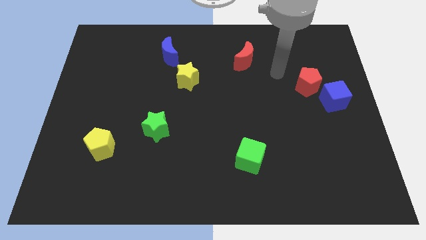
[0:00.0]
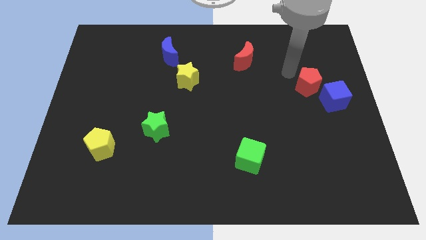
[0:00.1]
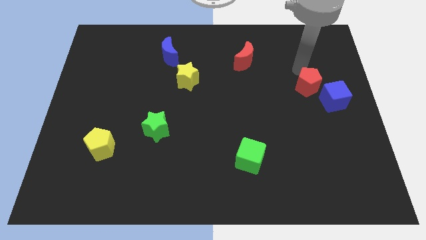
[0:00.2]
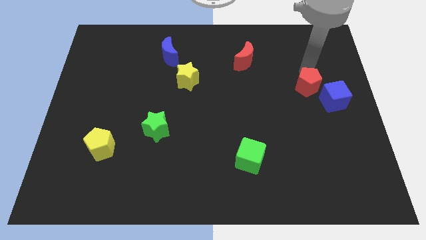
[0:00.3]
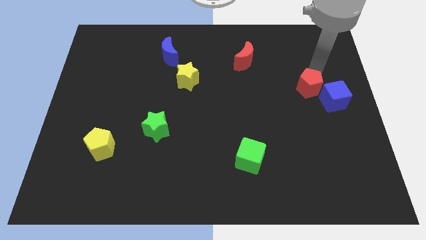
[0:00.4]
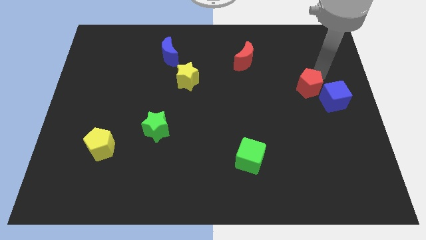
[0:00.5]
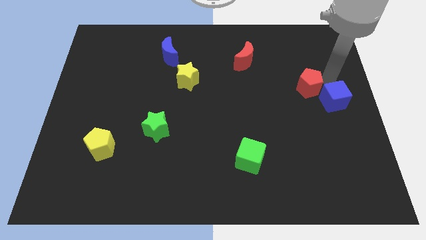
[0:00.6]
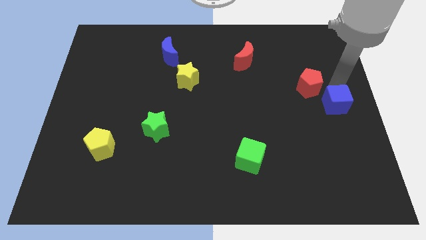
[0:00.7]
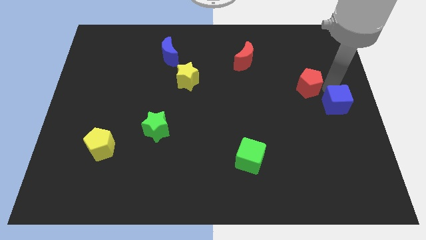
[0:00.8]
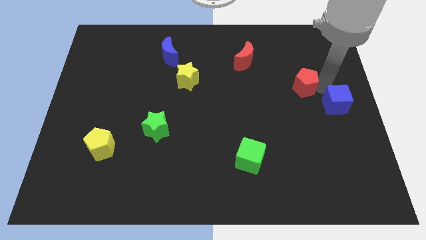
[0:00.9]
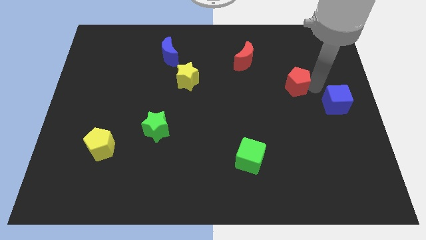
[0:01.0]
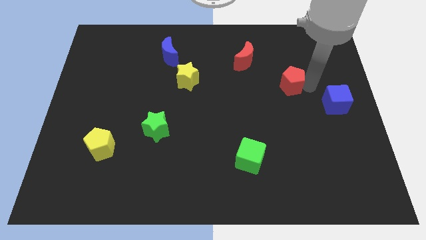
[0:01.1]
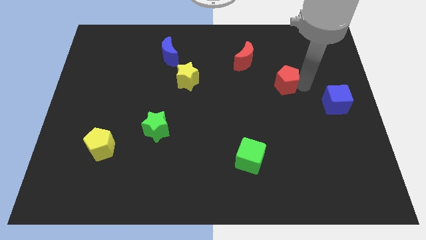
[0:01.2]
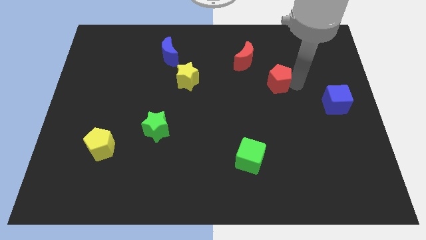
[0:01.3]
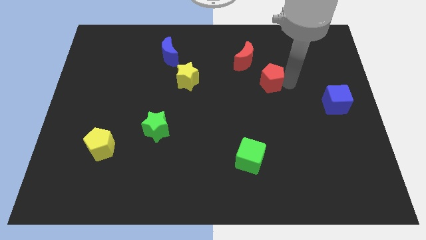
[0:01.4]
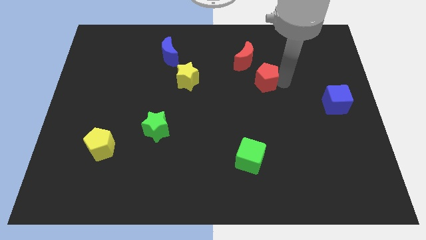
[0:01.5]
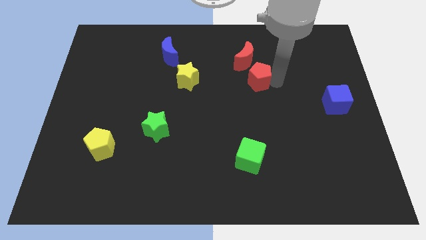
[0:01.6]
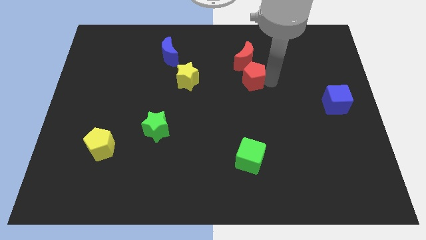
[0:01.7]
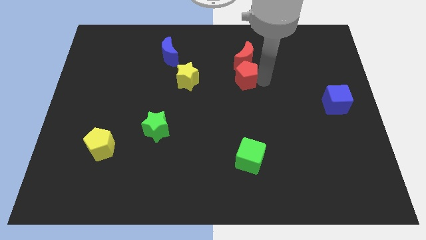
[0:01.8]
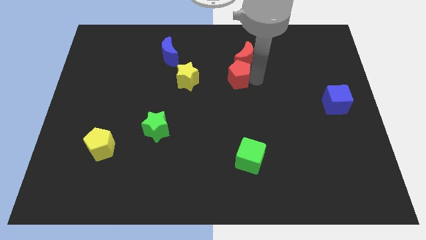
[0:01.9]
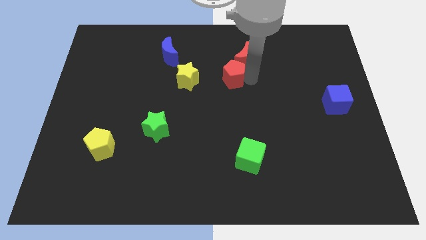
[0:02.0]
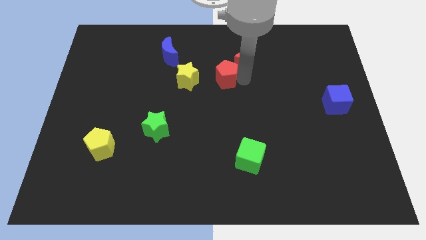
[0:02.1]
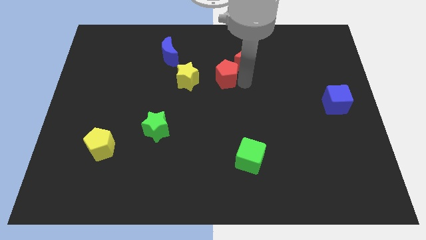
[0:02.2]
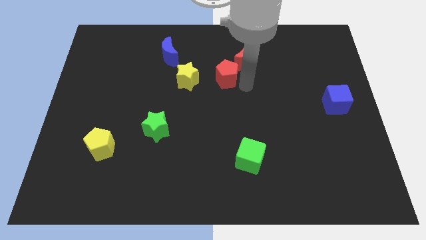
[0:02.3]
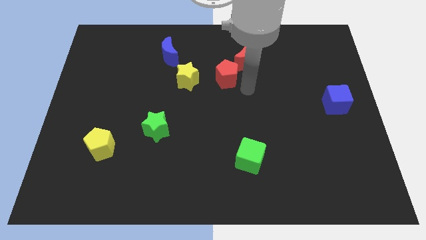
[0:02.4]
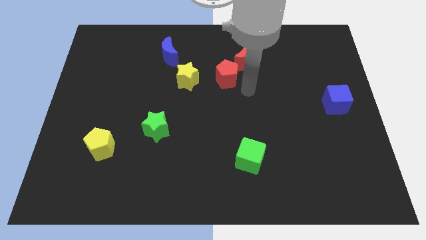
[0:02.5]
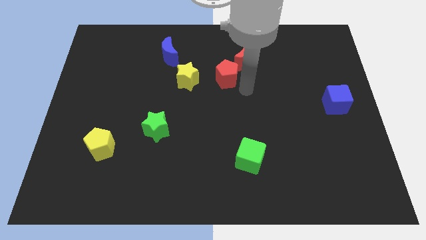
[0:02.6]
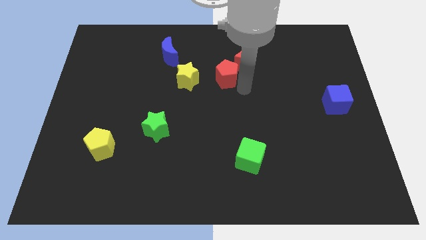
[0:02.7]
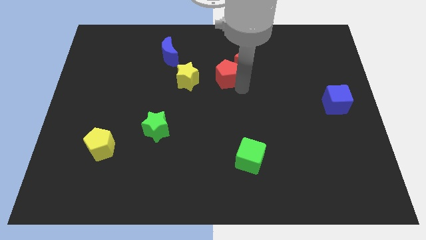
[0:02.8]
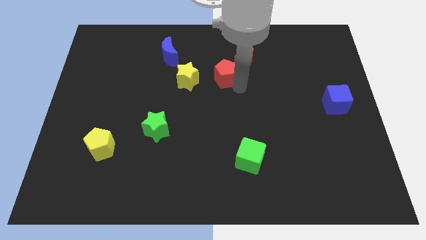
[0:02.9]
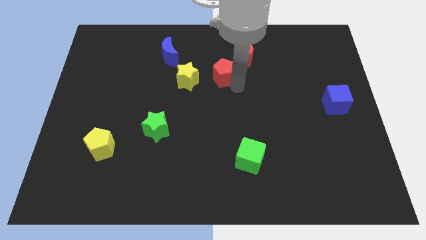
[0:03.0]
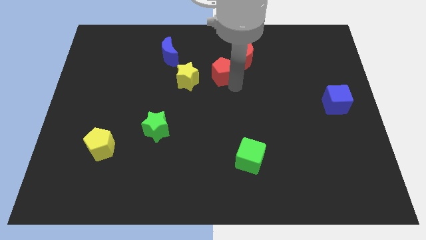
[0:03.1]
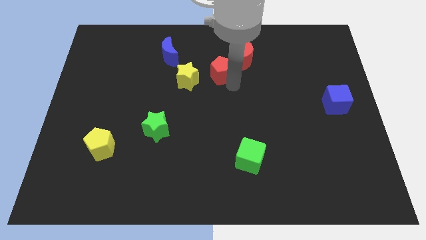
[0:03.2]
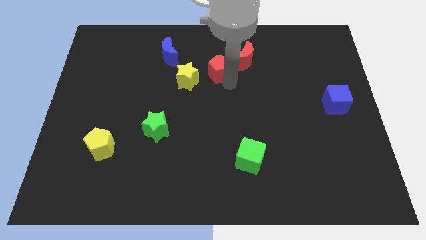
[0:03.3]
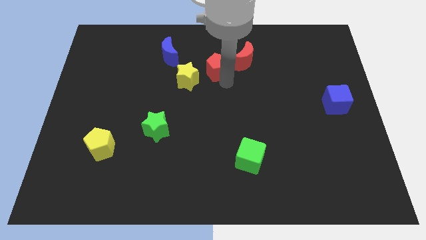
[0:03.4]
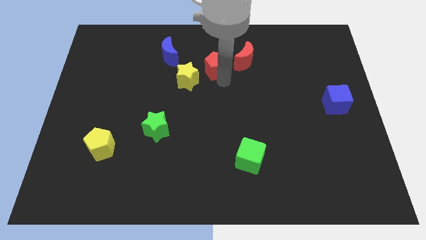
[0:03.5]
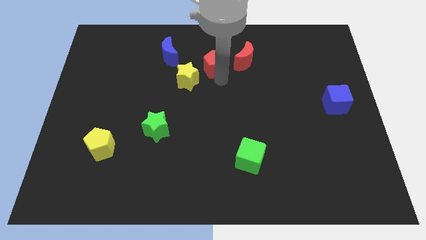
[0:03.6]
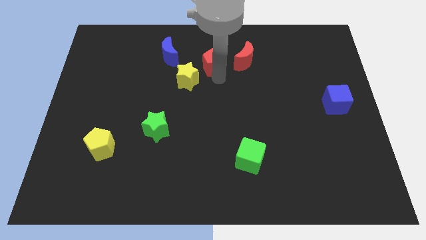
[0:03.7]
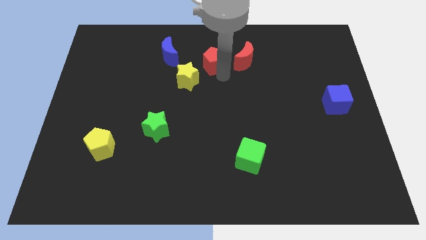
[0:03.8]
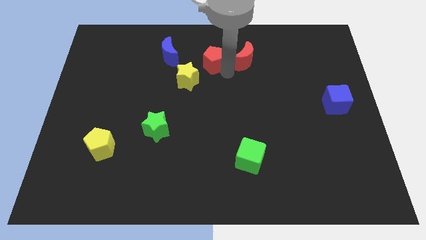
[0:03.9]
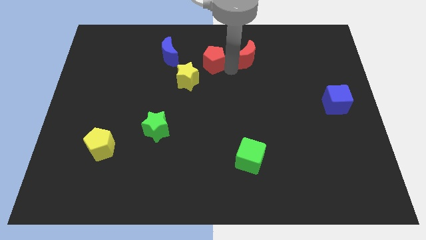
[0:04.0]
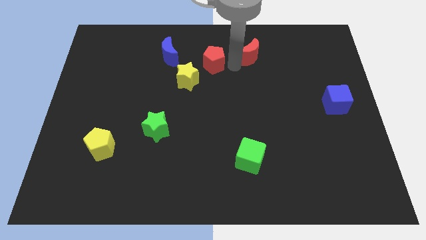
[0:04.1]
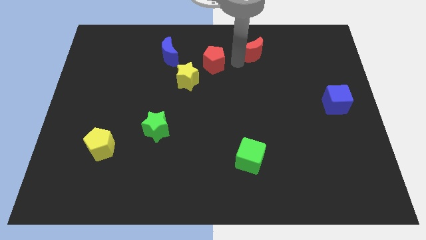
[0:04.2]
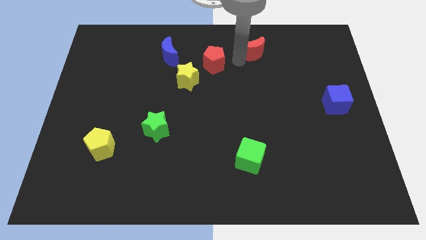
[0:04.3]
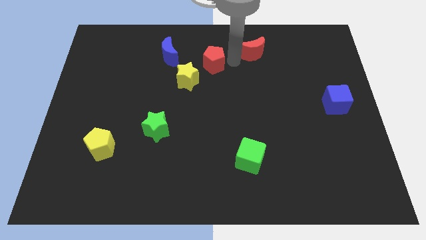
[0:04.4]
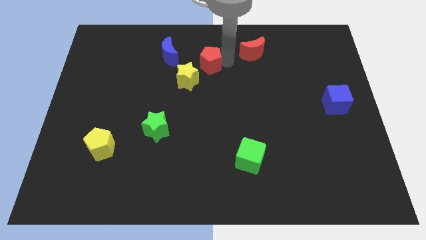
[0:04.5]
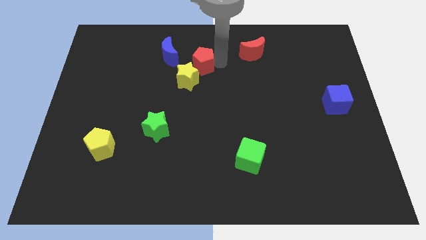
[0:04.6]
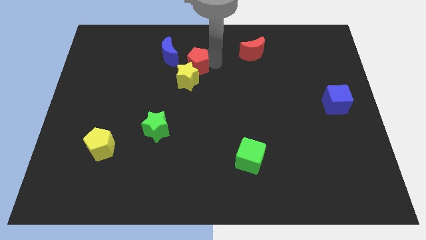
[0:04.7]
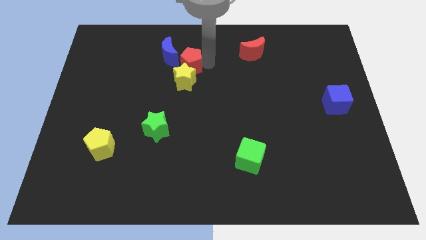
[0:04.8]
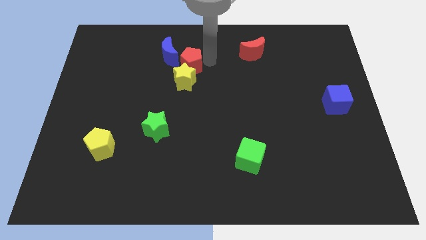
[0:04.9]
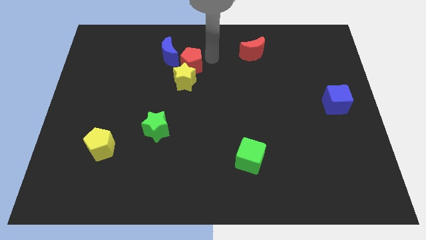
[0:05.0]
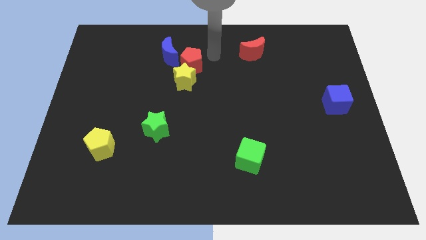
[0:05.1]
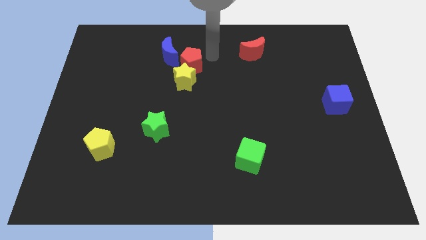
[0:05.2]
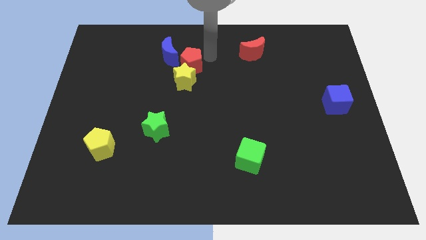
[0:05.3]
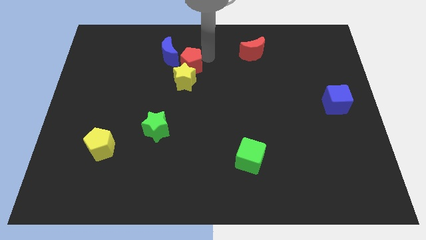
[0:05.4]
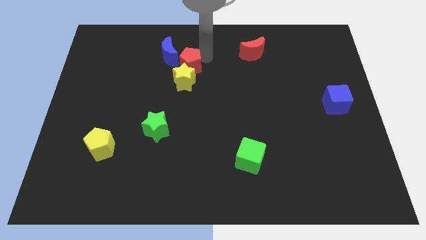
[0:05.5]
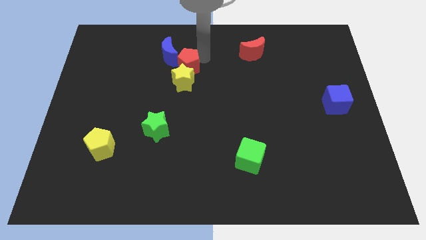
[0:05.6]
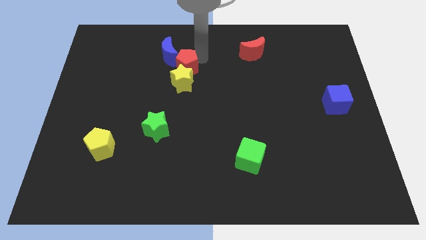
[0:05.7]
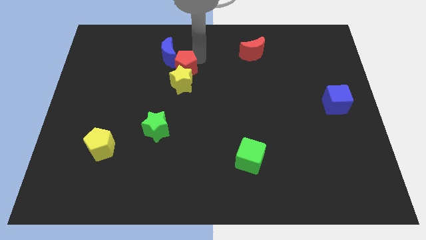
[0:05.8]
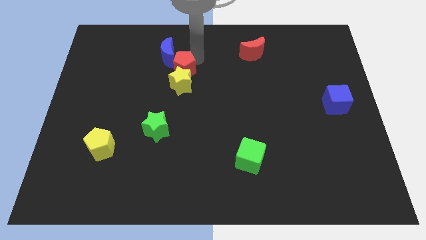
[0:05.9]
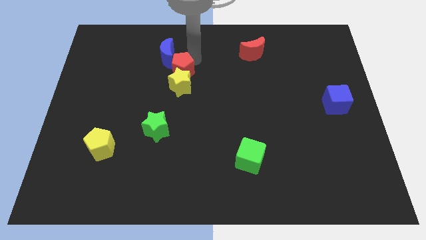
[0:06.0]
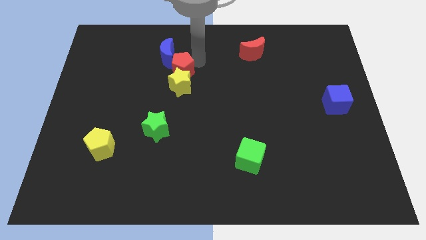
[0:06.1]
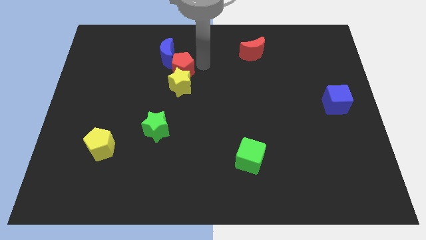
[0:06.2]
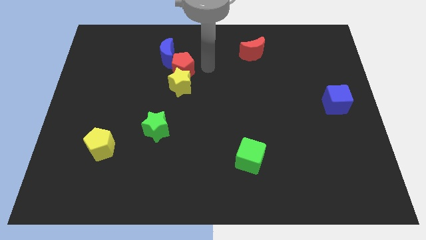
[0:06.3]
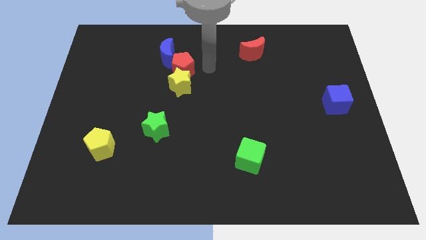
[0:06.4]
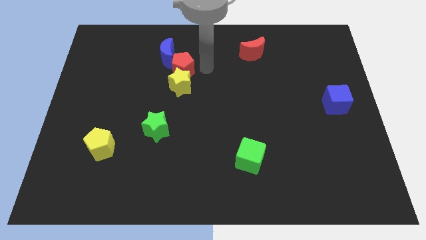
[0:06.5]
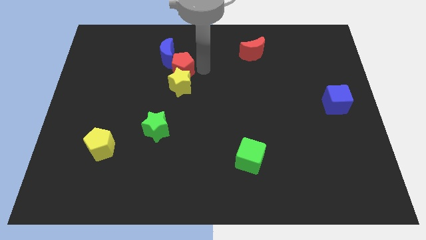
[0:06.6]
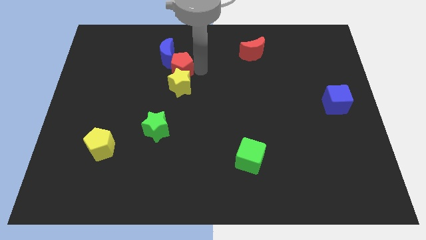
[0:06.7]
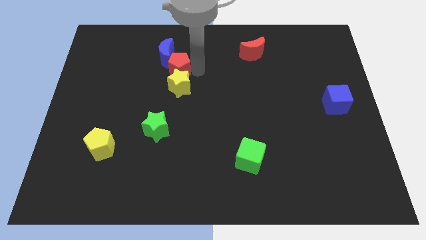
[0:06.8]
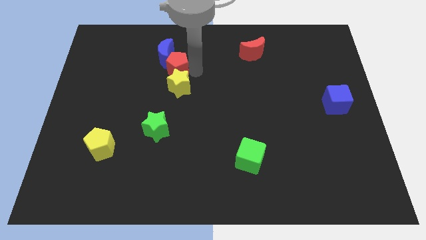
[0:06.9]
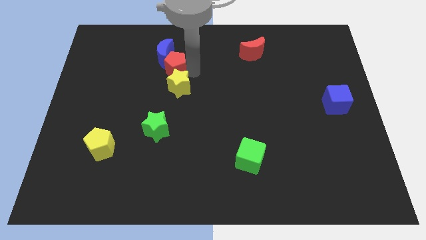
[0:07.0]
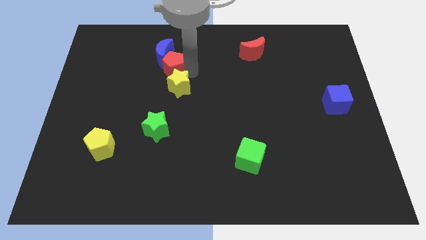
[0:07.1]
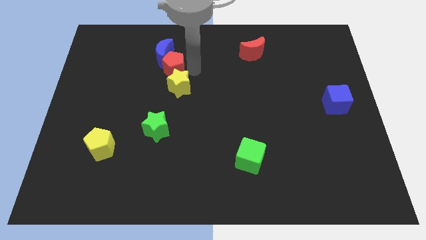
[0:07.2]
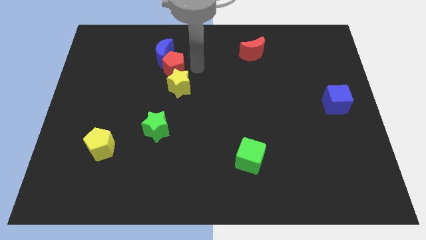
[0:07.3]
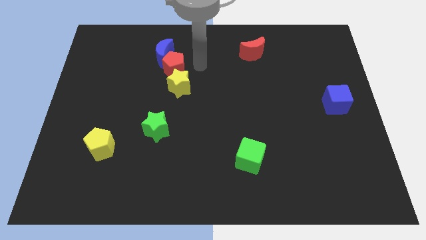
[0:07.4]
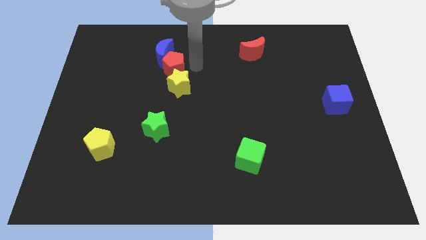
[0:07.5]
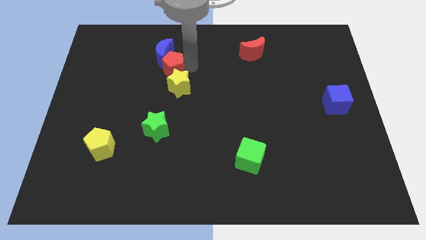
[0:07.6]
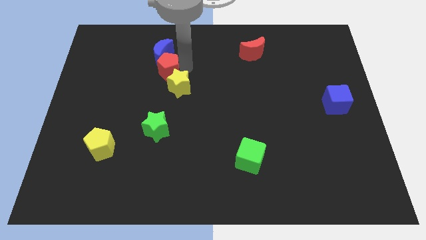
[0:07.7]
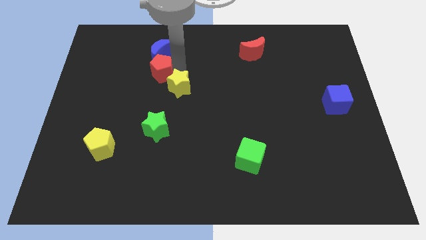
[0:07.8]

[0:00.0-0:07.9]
slide the red pentagon to the bottom left side of the blue moon
